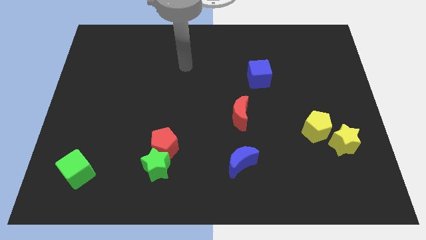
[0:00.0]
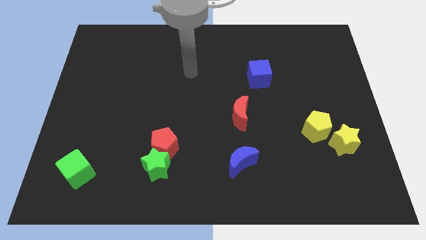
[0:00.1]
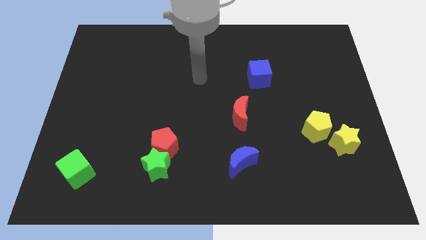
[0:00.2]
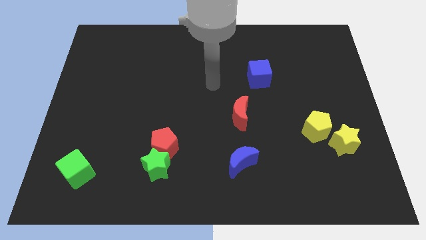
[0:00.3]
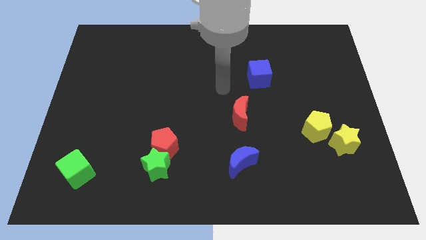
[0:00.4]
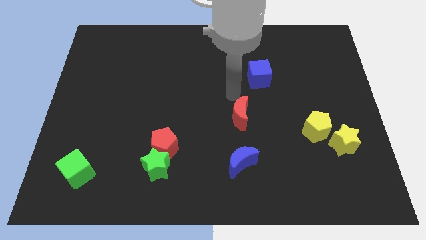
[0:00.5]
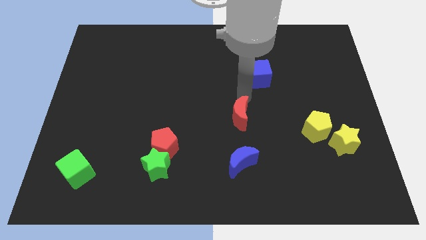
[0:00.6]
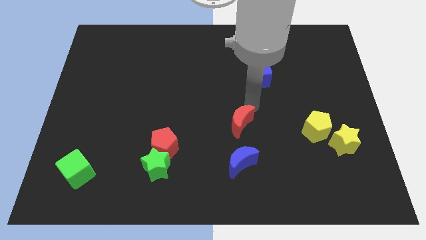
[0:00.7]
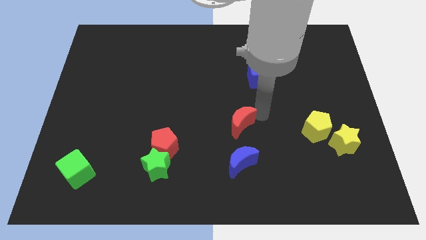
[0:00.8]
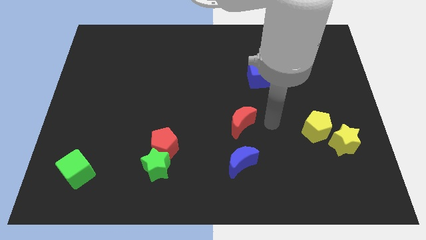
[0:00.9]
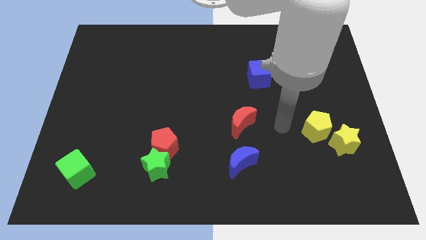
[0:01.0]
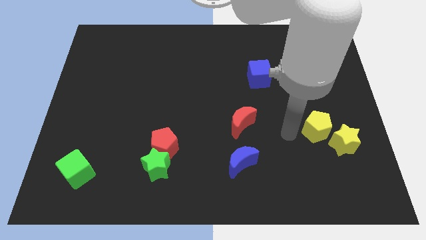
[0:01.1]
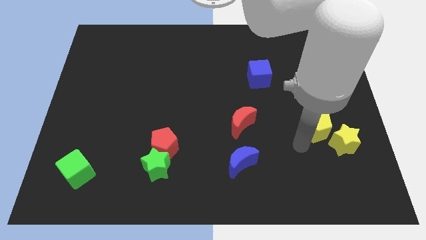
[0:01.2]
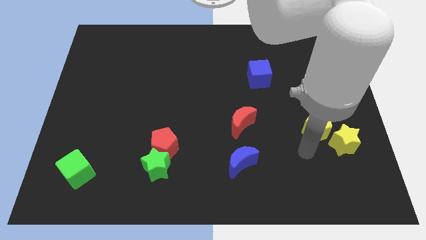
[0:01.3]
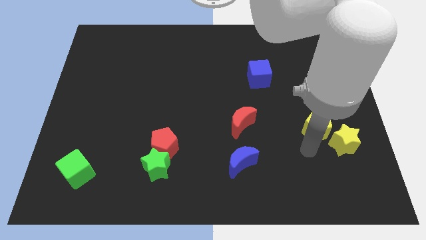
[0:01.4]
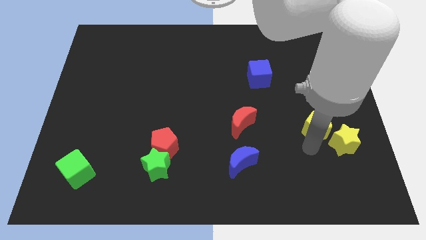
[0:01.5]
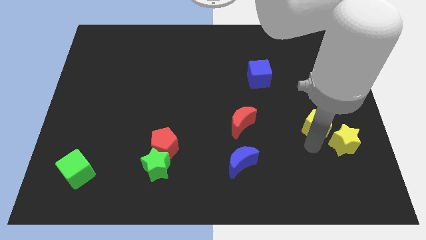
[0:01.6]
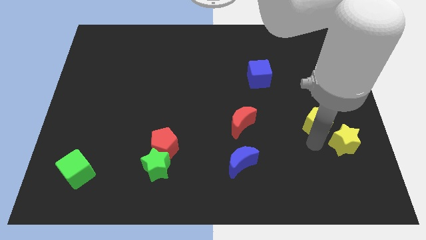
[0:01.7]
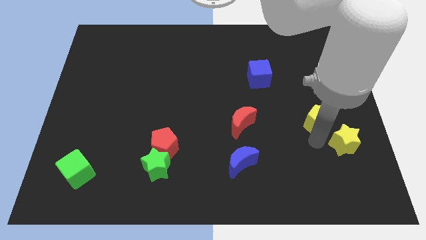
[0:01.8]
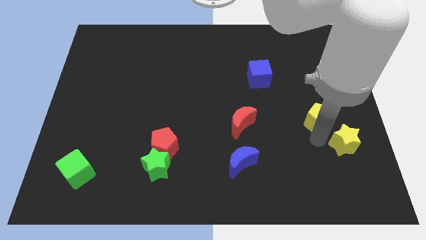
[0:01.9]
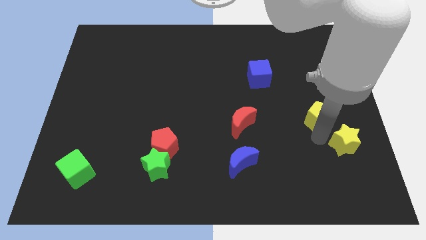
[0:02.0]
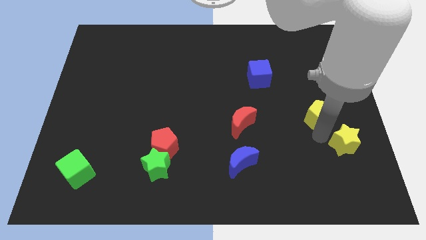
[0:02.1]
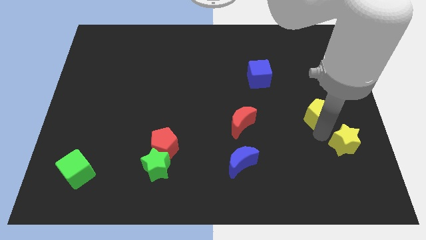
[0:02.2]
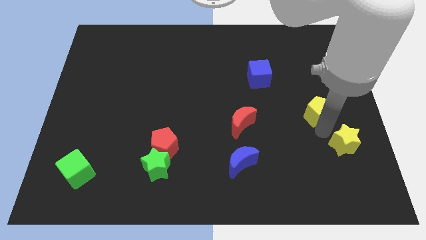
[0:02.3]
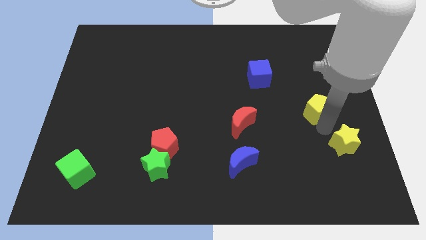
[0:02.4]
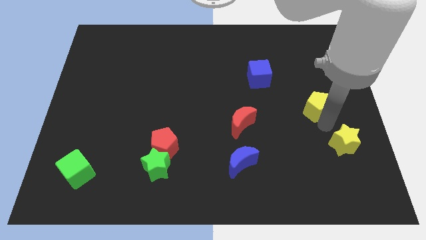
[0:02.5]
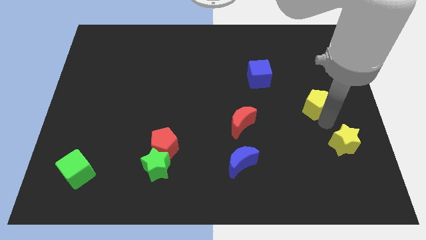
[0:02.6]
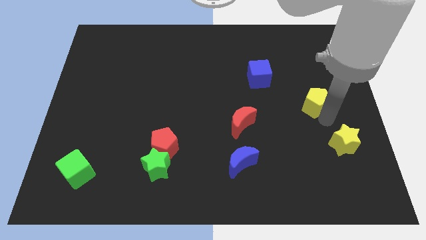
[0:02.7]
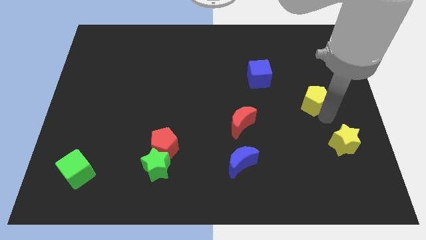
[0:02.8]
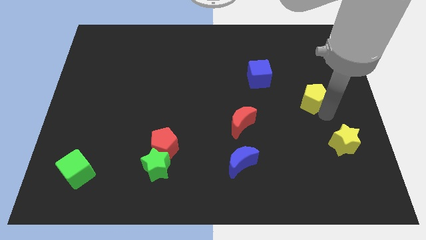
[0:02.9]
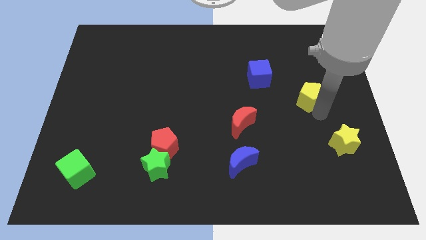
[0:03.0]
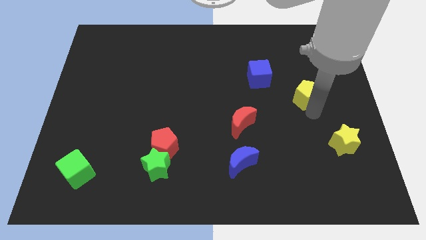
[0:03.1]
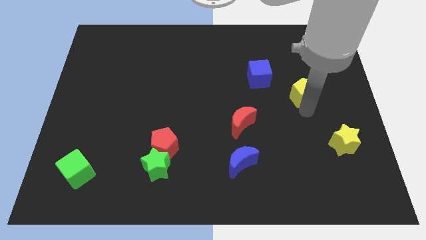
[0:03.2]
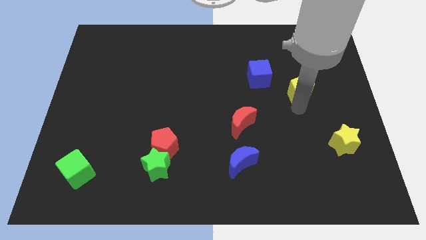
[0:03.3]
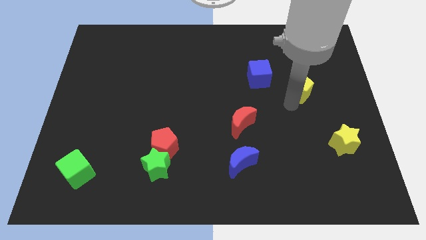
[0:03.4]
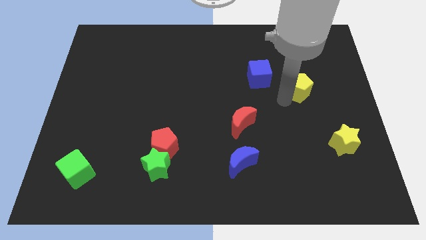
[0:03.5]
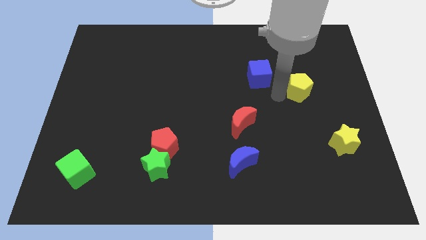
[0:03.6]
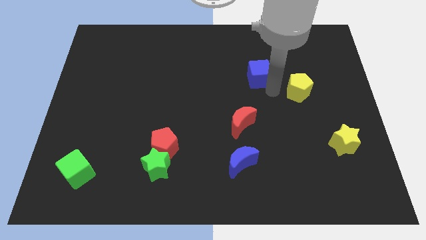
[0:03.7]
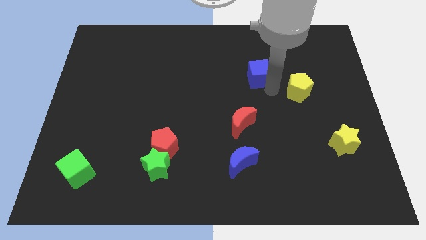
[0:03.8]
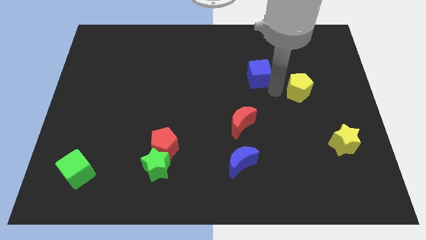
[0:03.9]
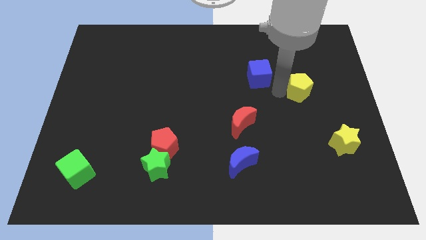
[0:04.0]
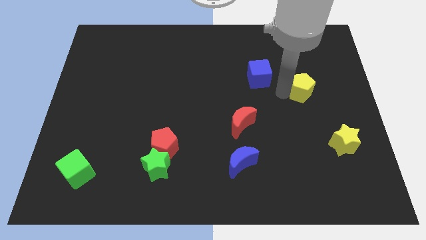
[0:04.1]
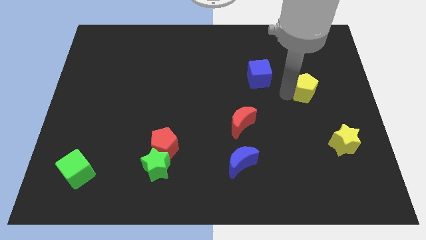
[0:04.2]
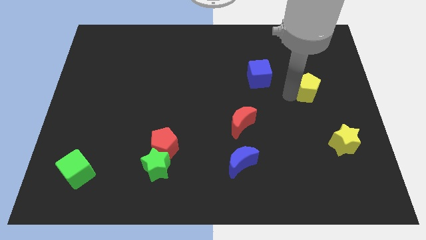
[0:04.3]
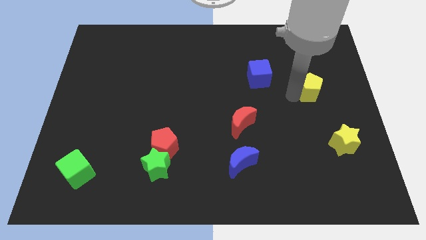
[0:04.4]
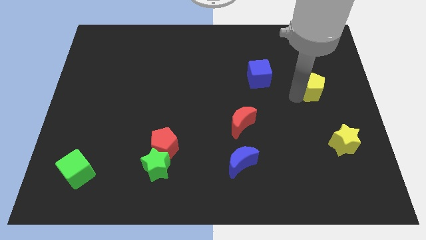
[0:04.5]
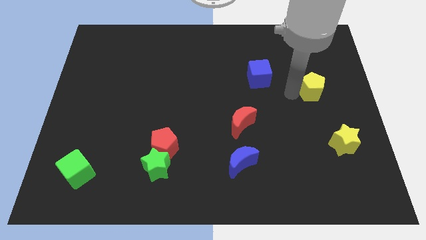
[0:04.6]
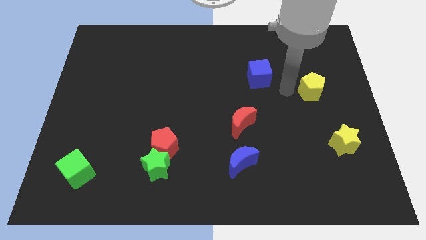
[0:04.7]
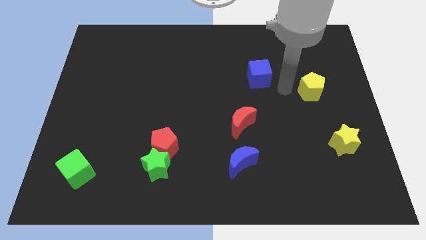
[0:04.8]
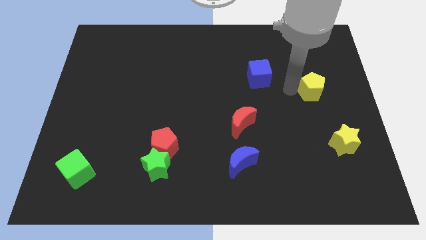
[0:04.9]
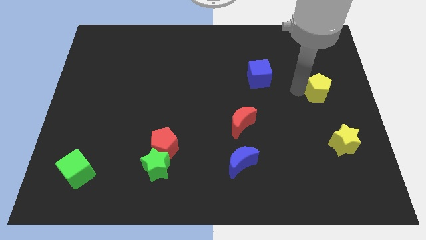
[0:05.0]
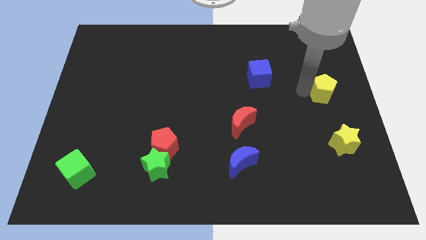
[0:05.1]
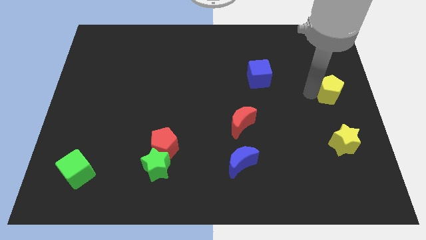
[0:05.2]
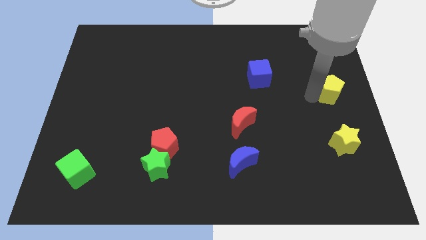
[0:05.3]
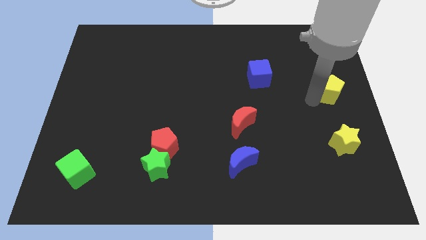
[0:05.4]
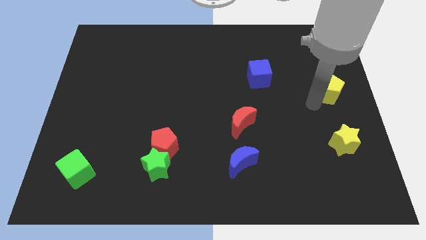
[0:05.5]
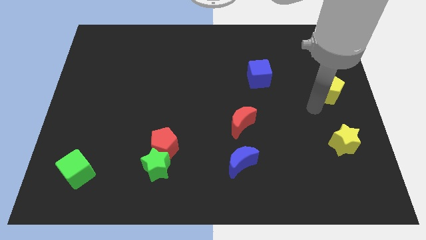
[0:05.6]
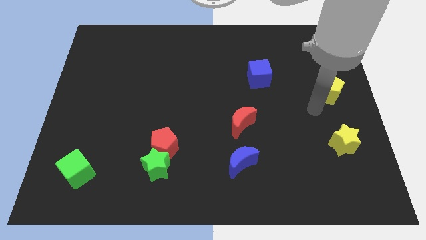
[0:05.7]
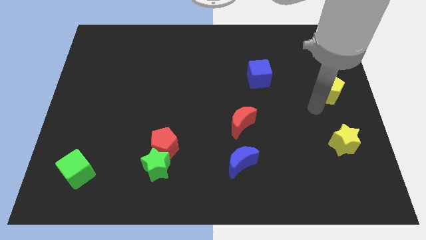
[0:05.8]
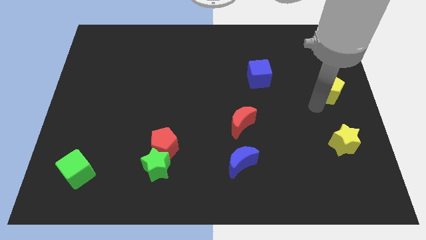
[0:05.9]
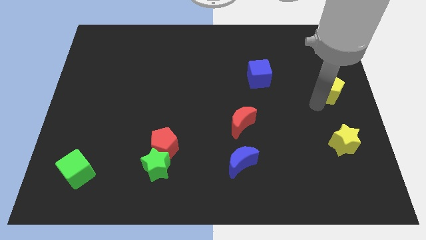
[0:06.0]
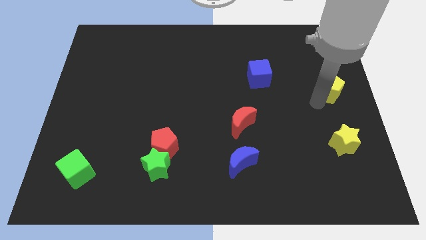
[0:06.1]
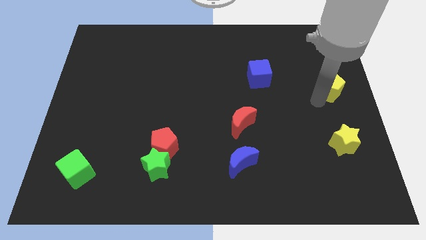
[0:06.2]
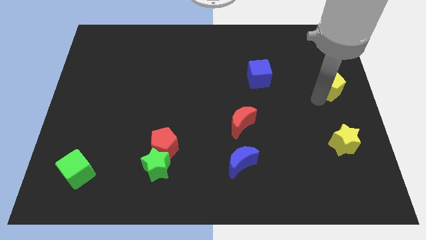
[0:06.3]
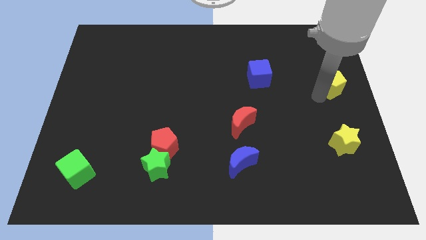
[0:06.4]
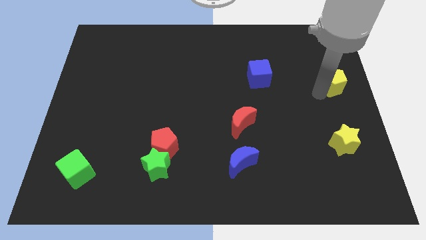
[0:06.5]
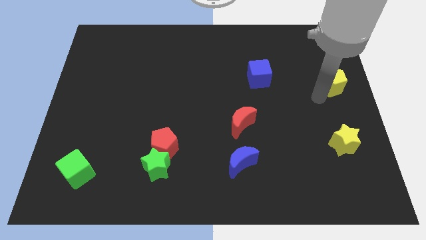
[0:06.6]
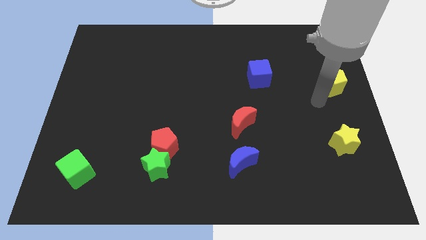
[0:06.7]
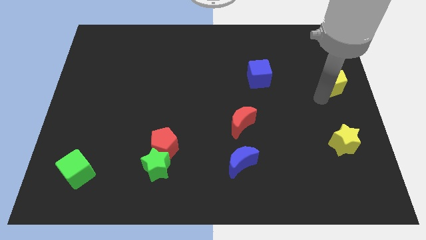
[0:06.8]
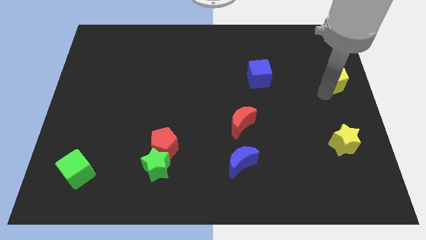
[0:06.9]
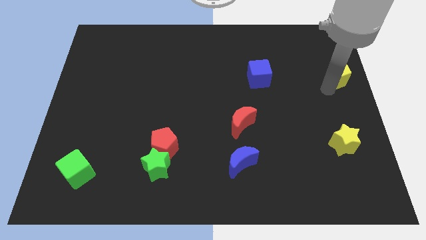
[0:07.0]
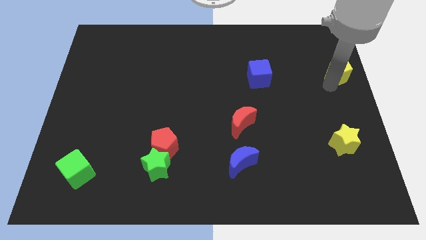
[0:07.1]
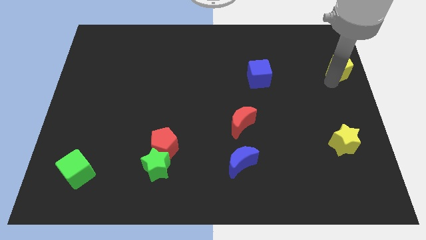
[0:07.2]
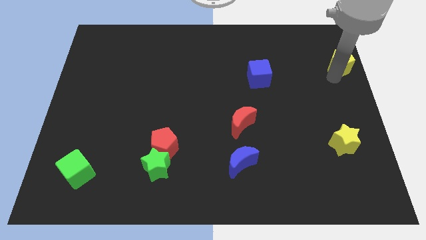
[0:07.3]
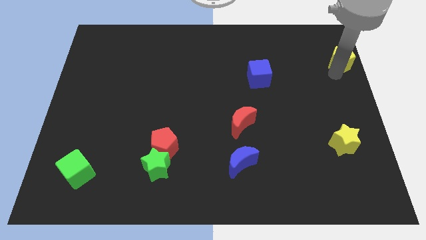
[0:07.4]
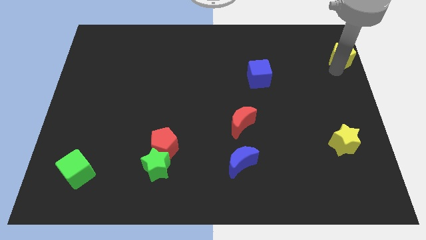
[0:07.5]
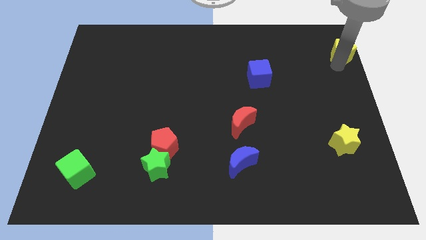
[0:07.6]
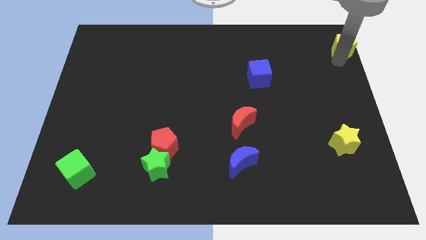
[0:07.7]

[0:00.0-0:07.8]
put the yellow pentagon to the upper right corner
